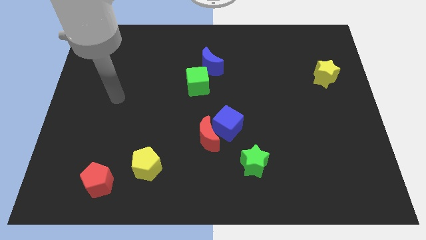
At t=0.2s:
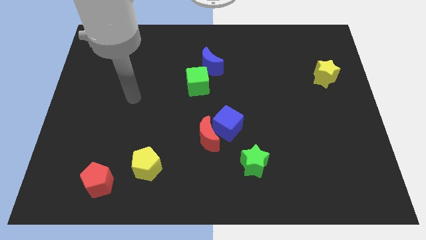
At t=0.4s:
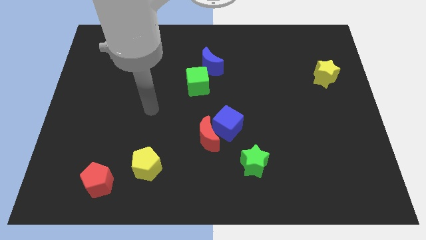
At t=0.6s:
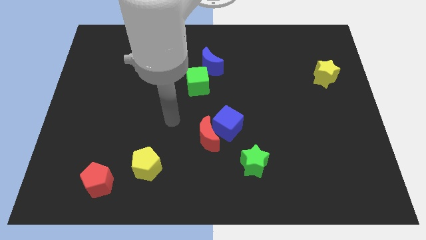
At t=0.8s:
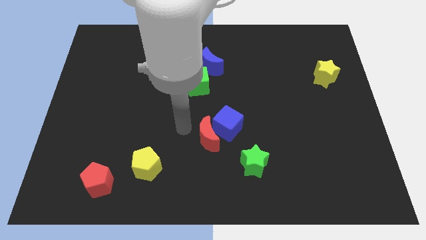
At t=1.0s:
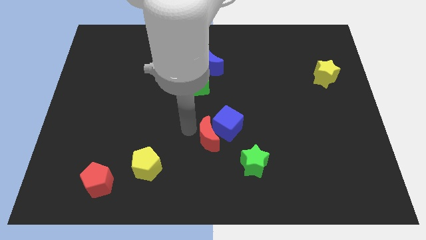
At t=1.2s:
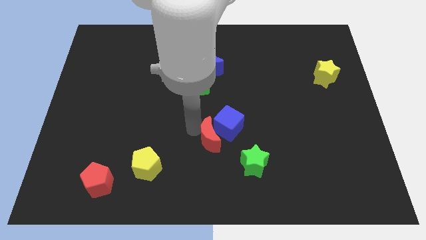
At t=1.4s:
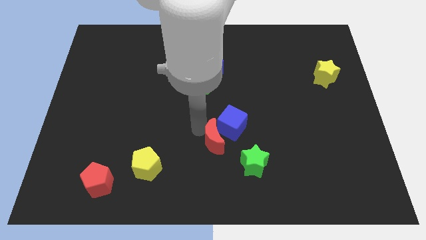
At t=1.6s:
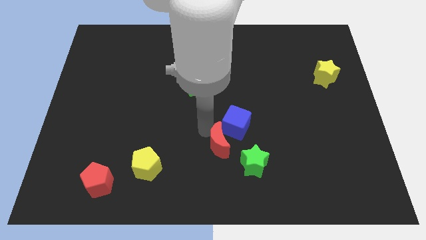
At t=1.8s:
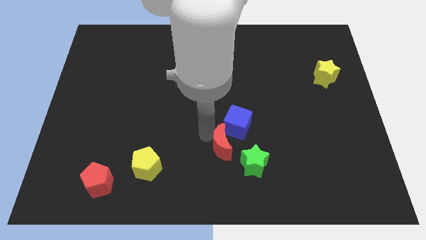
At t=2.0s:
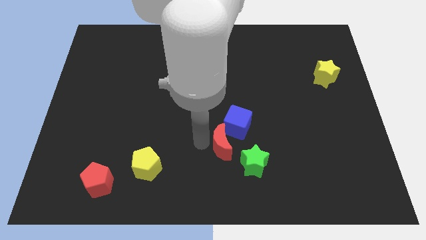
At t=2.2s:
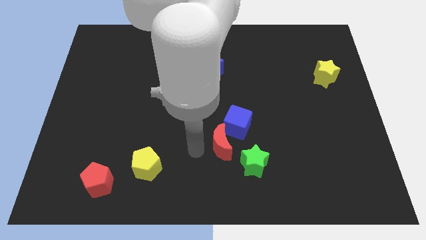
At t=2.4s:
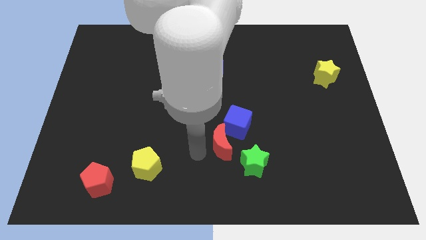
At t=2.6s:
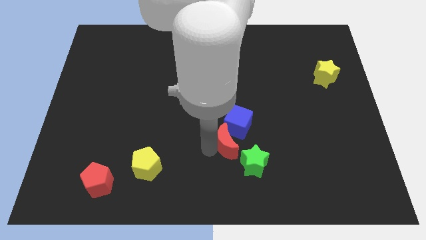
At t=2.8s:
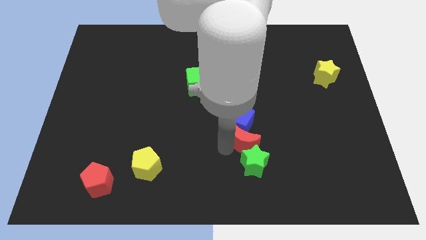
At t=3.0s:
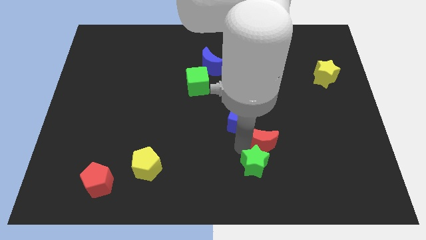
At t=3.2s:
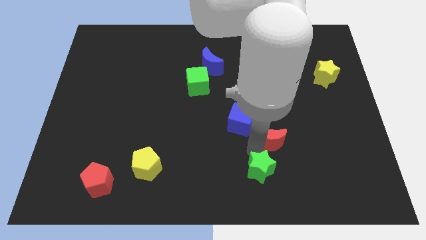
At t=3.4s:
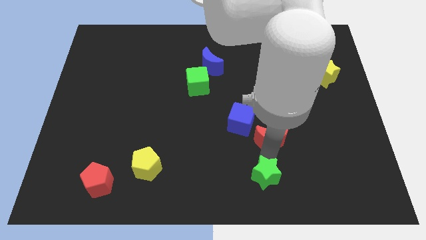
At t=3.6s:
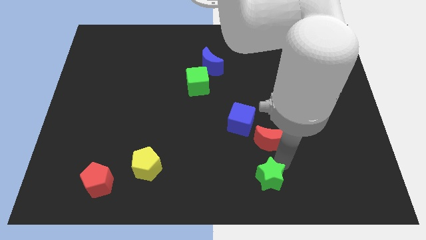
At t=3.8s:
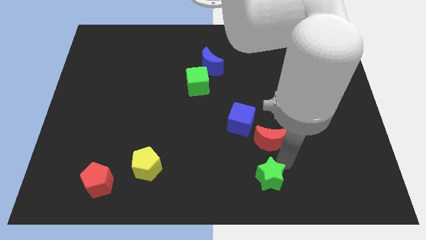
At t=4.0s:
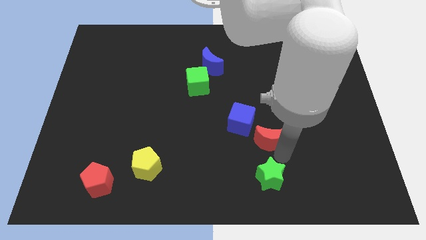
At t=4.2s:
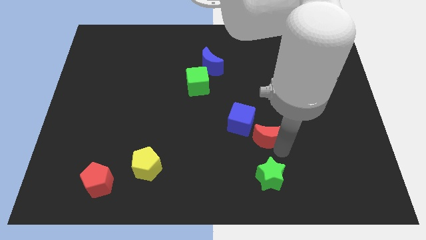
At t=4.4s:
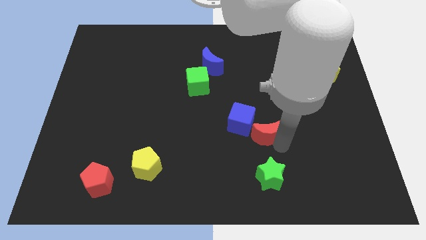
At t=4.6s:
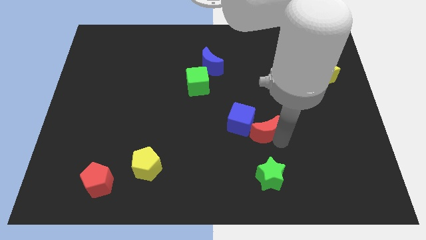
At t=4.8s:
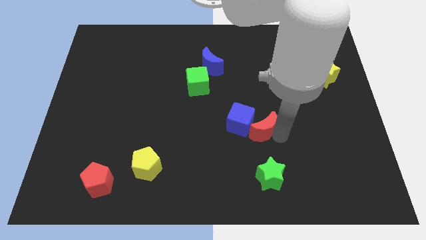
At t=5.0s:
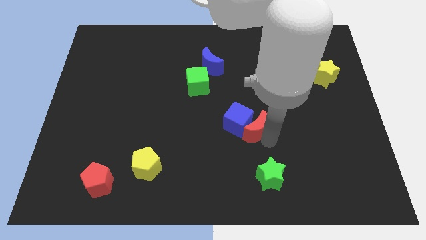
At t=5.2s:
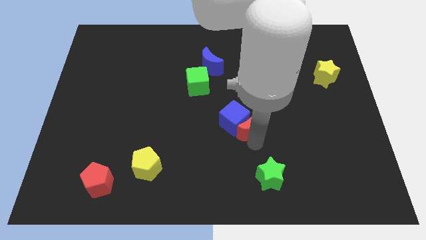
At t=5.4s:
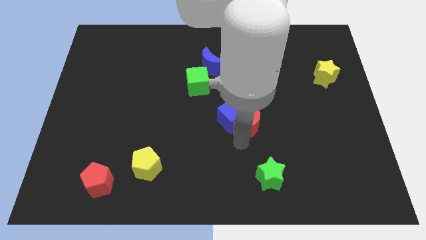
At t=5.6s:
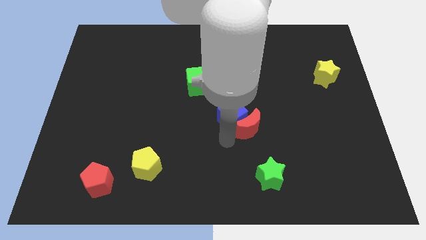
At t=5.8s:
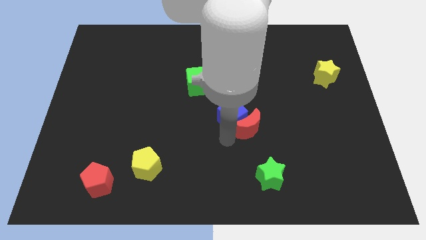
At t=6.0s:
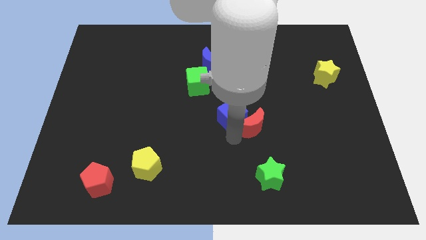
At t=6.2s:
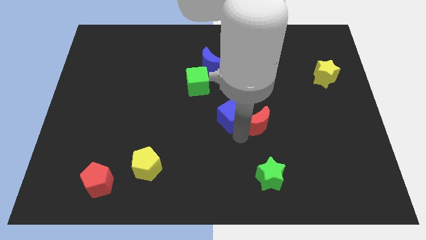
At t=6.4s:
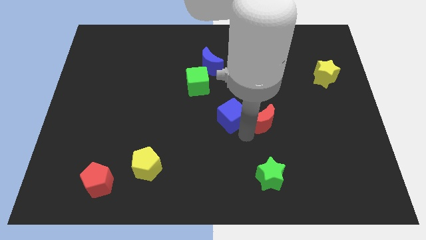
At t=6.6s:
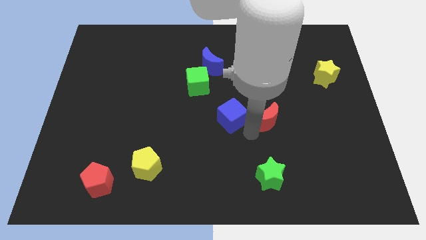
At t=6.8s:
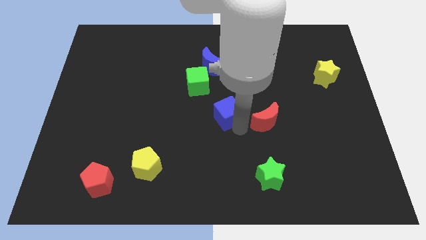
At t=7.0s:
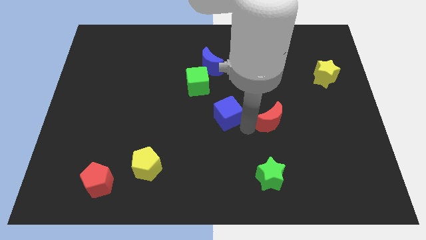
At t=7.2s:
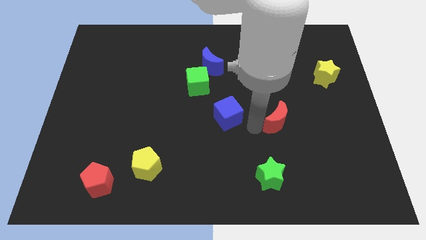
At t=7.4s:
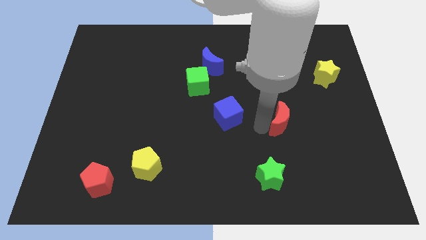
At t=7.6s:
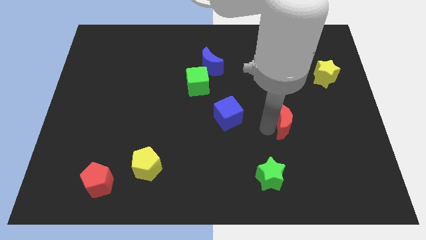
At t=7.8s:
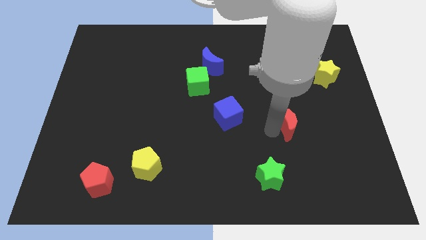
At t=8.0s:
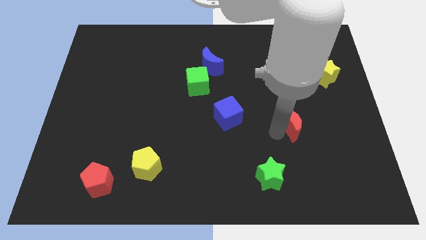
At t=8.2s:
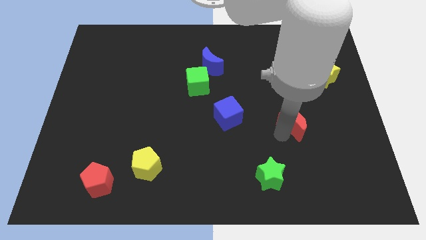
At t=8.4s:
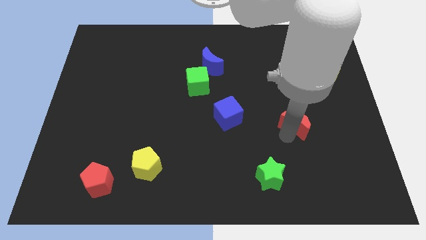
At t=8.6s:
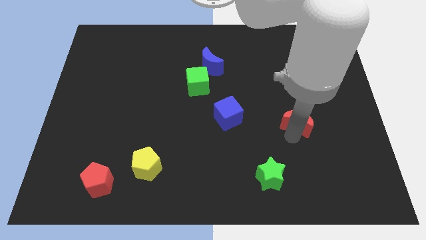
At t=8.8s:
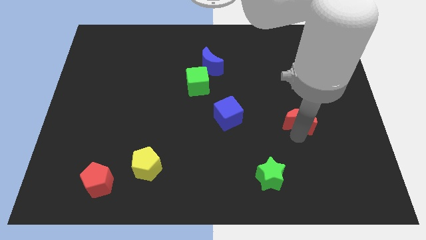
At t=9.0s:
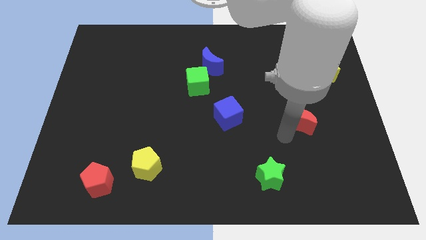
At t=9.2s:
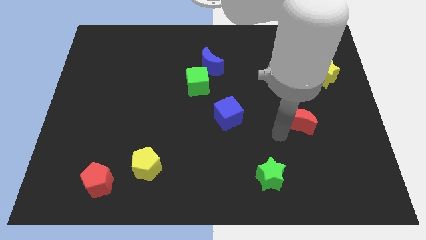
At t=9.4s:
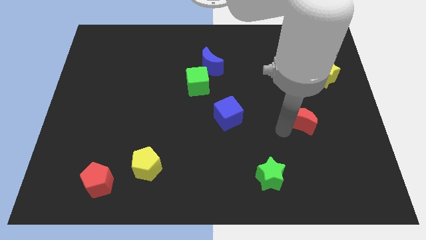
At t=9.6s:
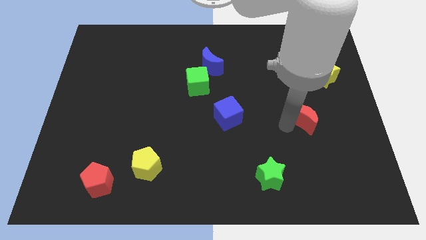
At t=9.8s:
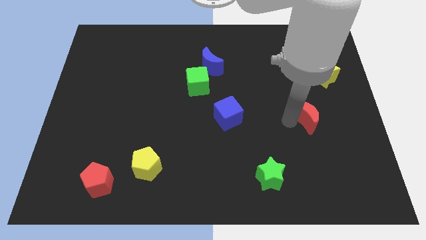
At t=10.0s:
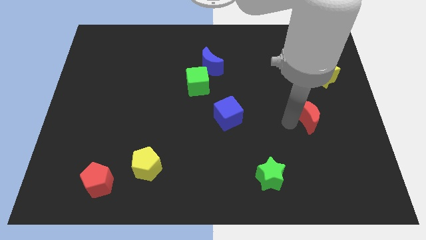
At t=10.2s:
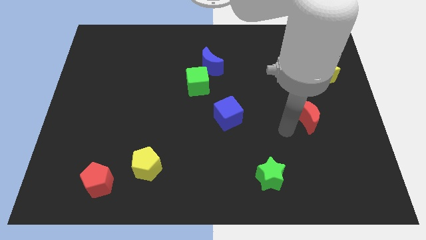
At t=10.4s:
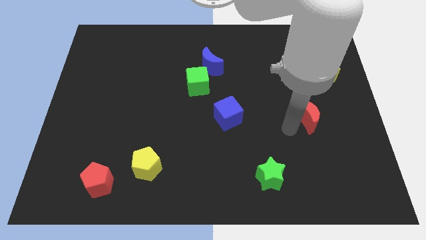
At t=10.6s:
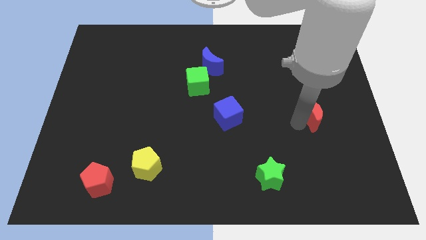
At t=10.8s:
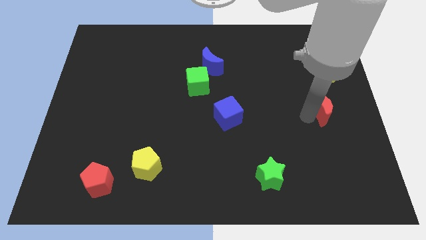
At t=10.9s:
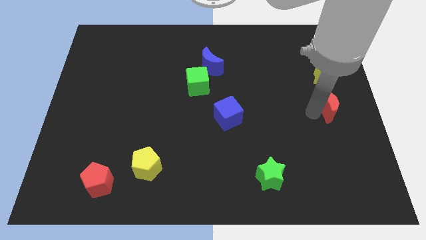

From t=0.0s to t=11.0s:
put the red moon to the right side of the board
